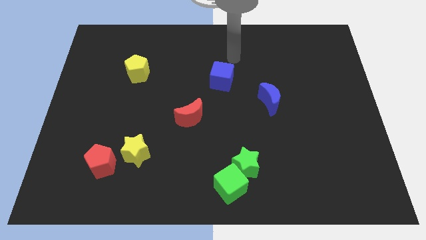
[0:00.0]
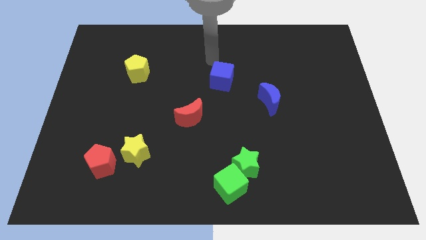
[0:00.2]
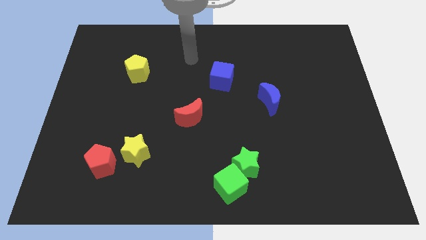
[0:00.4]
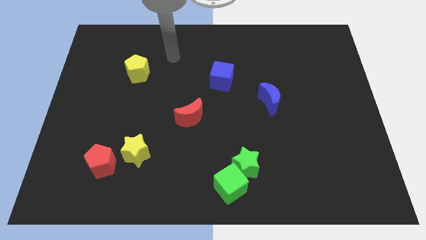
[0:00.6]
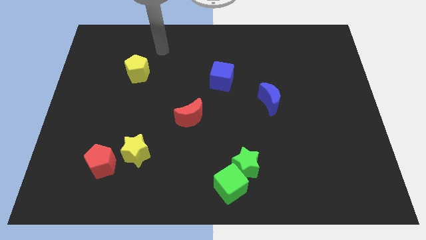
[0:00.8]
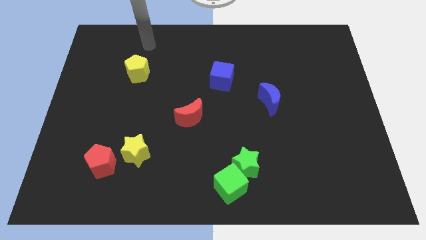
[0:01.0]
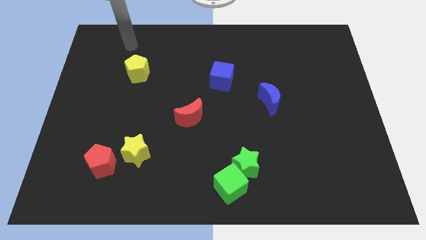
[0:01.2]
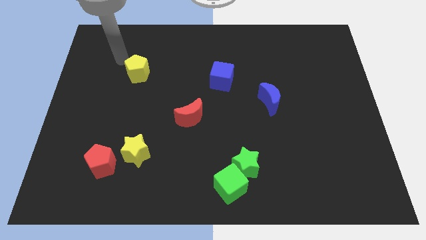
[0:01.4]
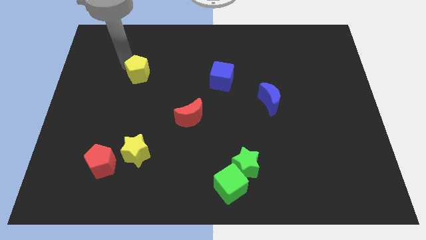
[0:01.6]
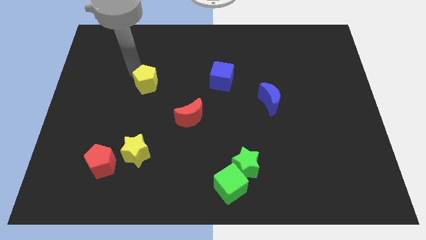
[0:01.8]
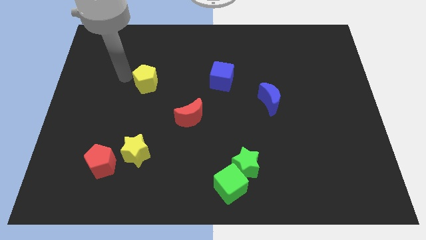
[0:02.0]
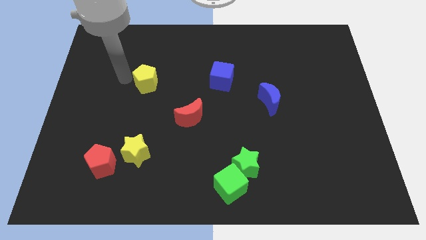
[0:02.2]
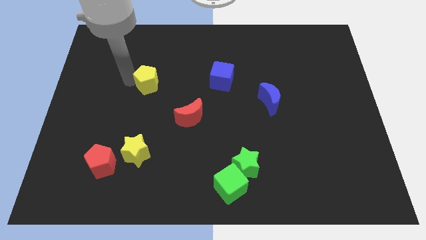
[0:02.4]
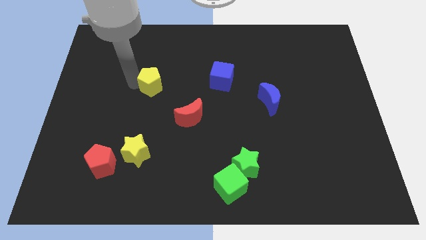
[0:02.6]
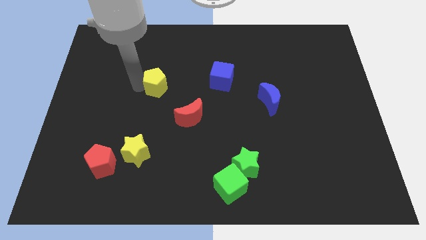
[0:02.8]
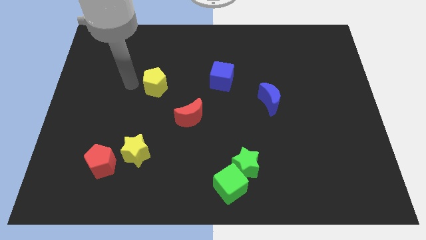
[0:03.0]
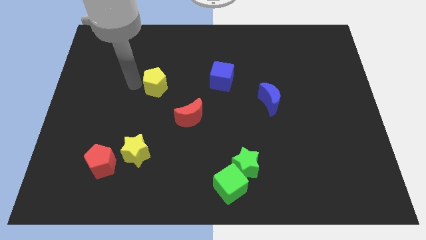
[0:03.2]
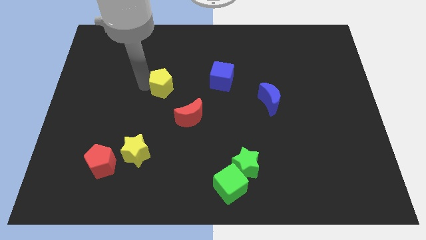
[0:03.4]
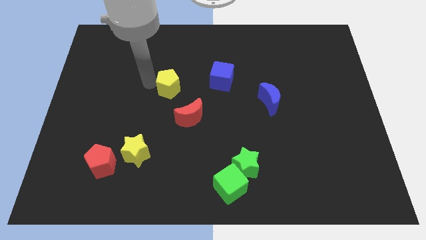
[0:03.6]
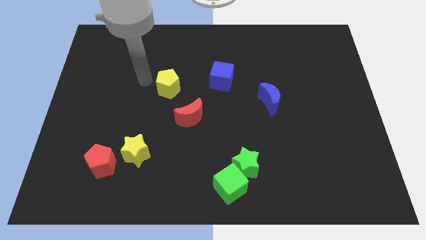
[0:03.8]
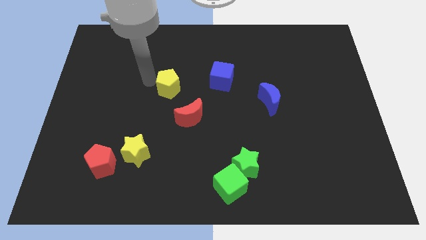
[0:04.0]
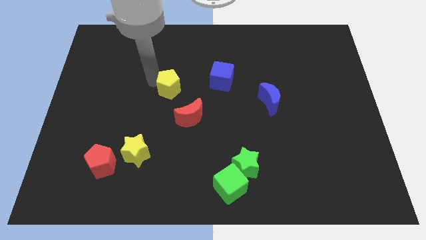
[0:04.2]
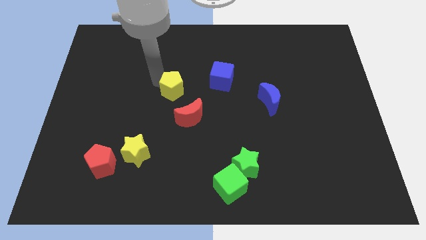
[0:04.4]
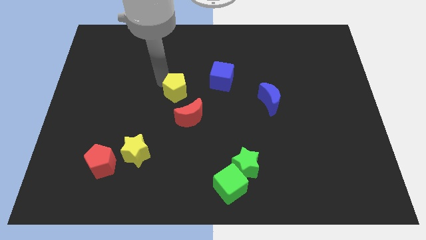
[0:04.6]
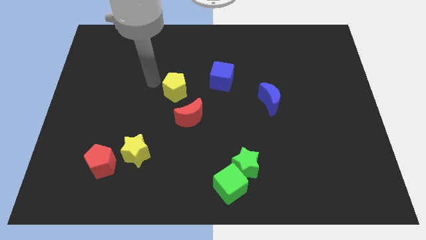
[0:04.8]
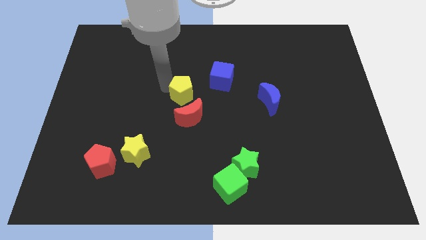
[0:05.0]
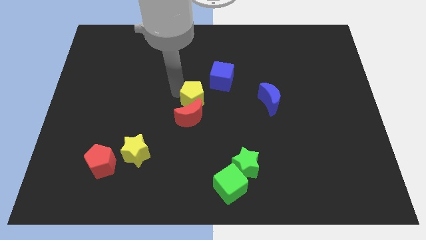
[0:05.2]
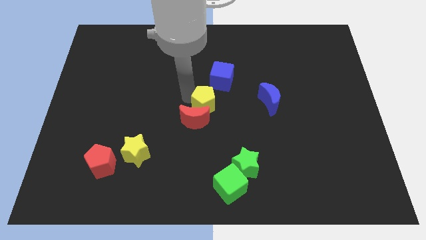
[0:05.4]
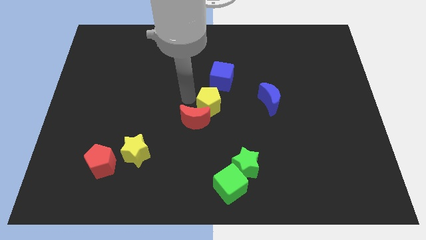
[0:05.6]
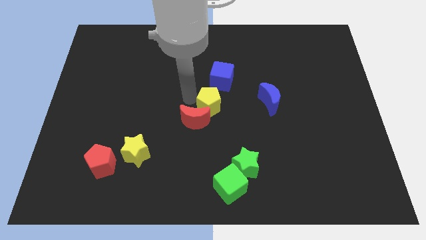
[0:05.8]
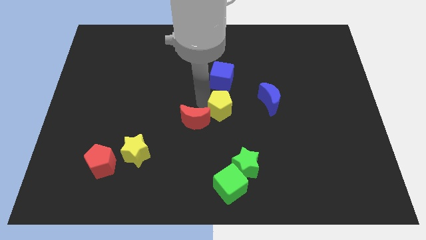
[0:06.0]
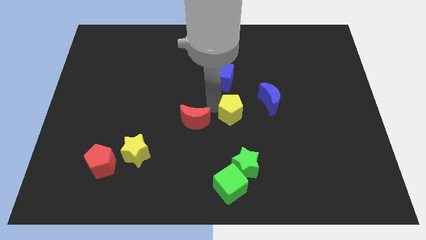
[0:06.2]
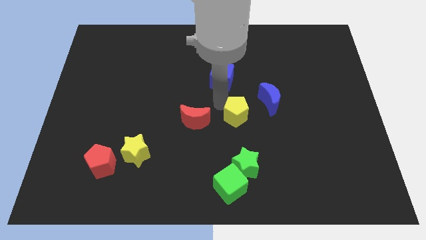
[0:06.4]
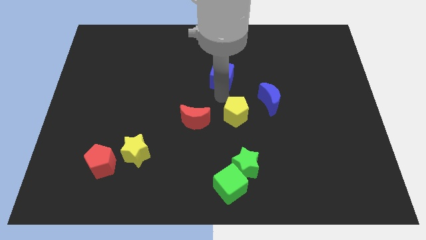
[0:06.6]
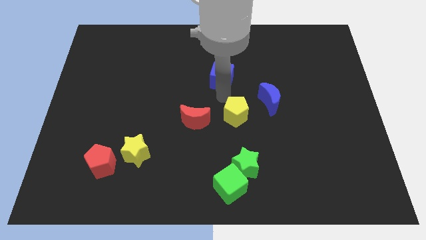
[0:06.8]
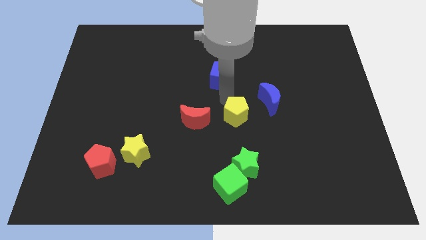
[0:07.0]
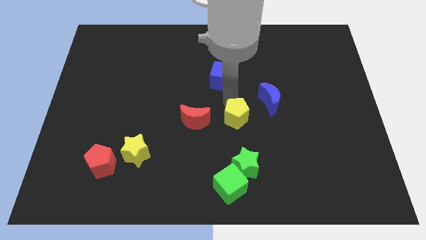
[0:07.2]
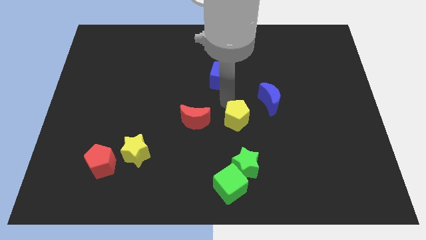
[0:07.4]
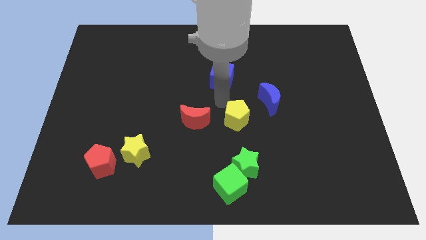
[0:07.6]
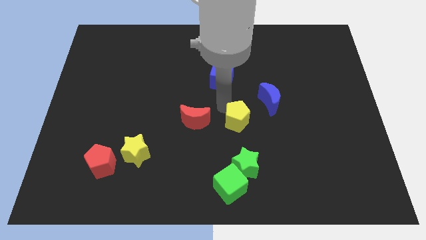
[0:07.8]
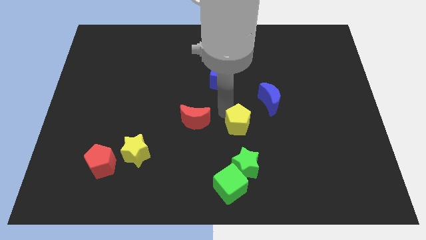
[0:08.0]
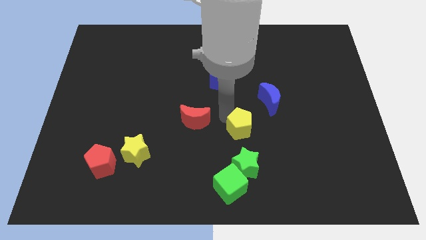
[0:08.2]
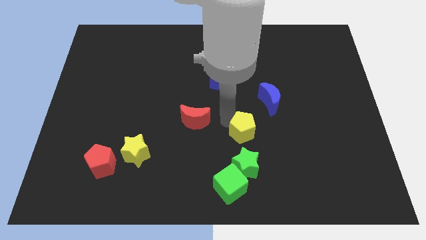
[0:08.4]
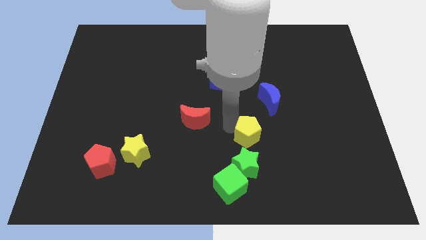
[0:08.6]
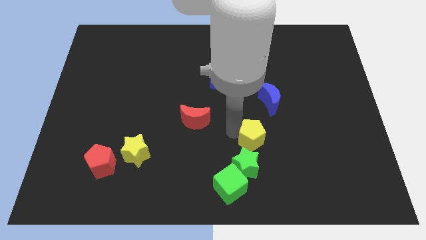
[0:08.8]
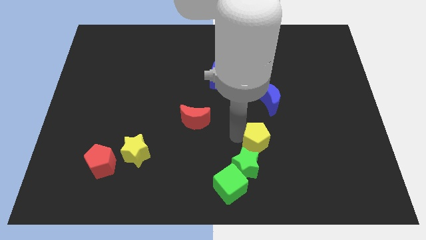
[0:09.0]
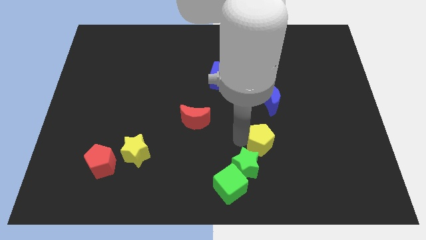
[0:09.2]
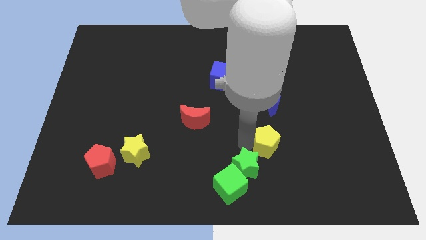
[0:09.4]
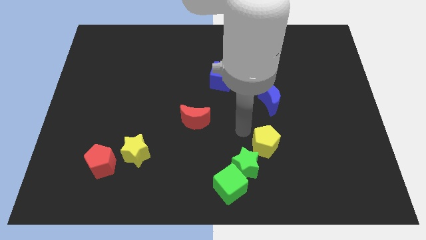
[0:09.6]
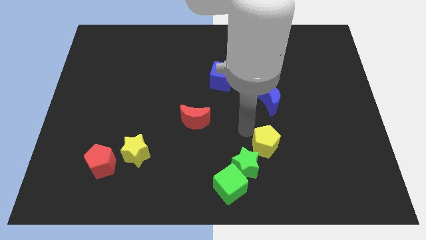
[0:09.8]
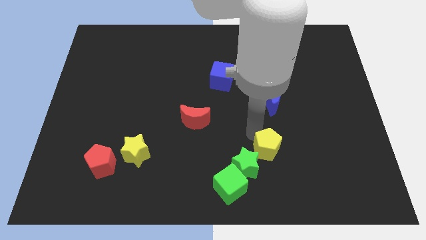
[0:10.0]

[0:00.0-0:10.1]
move the yellow pentagon right of the green star

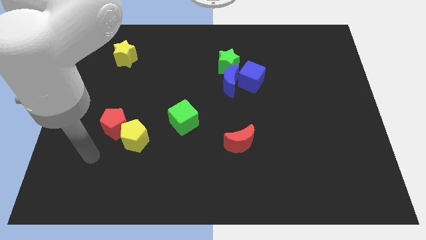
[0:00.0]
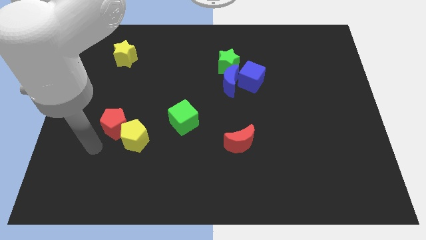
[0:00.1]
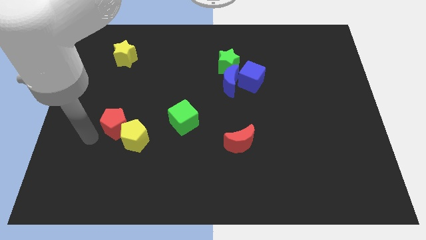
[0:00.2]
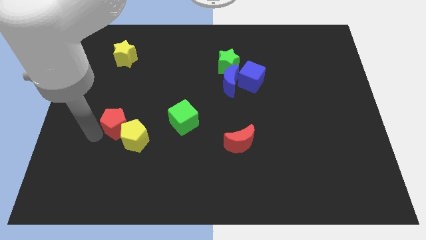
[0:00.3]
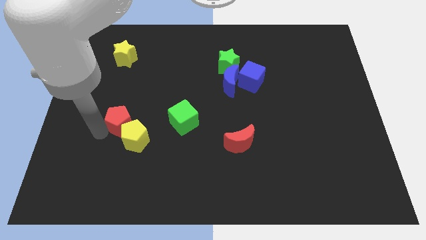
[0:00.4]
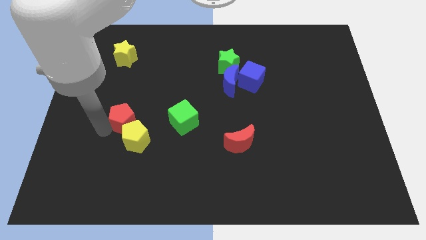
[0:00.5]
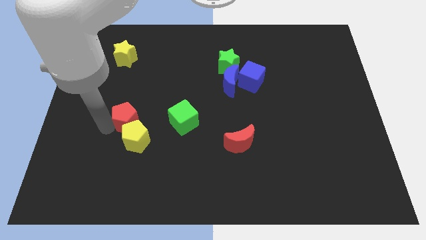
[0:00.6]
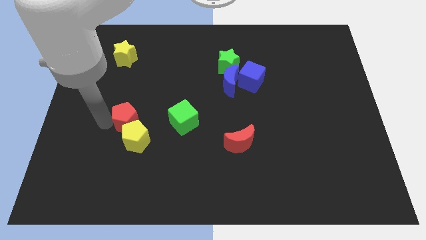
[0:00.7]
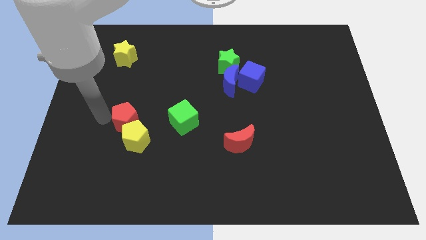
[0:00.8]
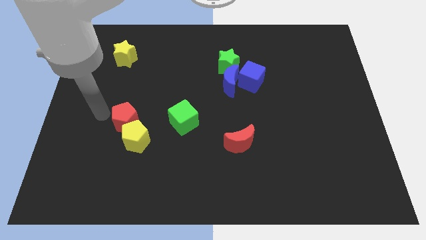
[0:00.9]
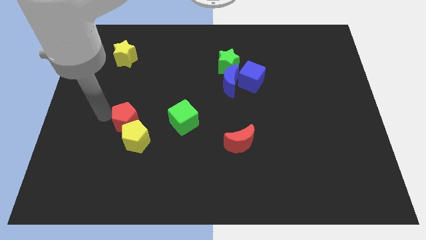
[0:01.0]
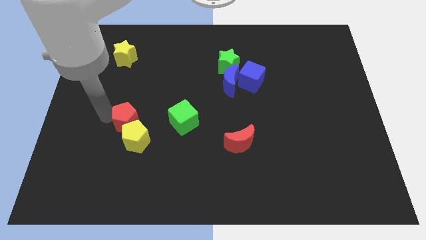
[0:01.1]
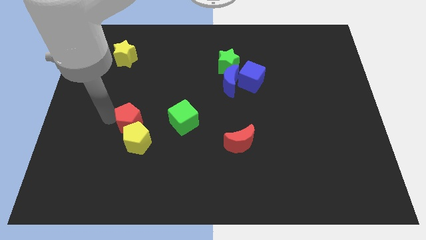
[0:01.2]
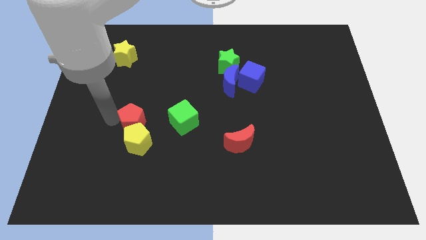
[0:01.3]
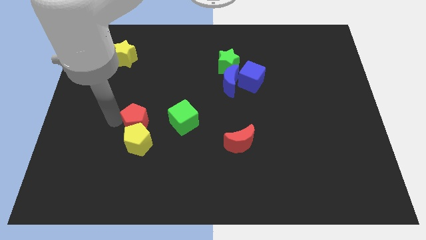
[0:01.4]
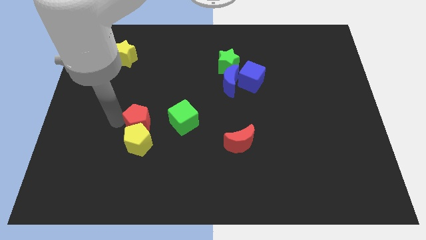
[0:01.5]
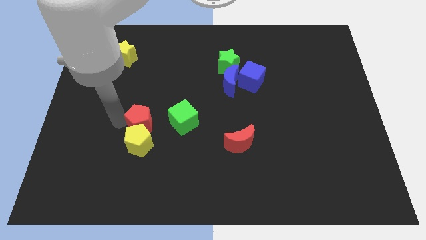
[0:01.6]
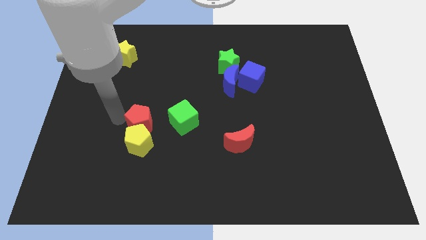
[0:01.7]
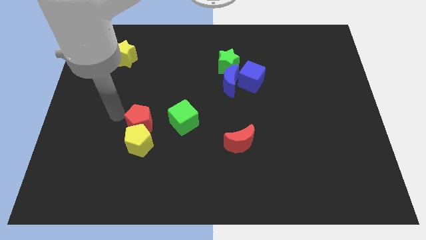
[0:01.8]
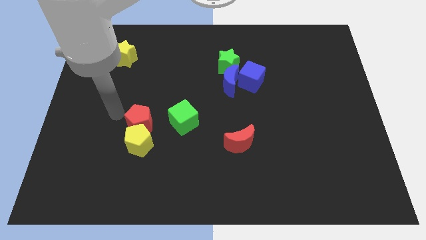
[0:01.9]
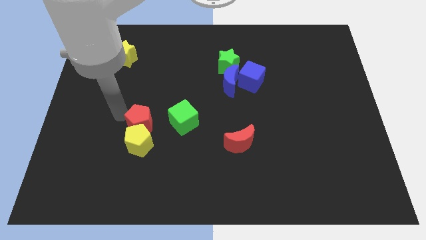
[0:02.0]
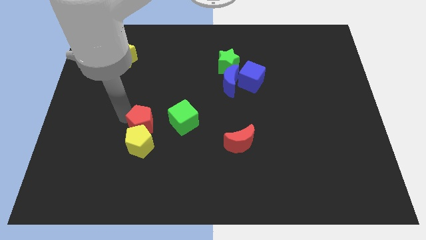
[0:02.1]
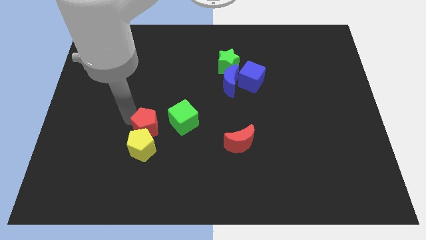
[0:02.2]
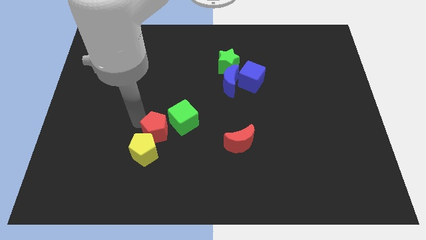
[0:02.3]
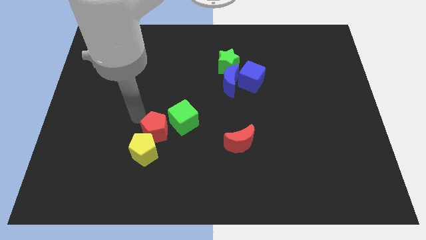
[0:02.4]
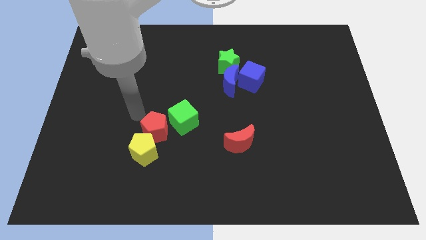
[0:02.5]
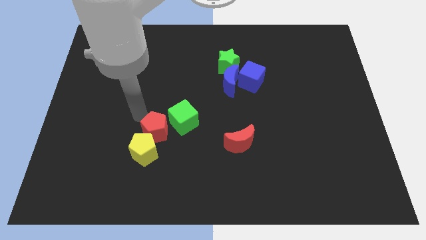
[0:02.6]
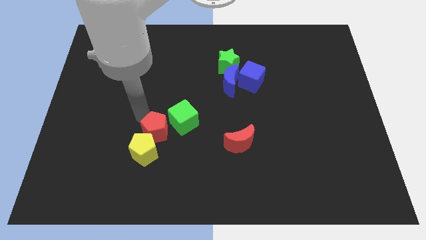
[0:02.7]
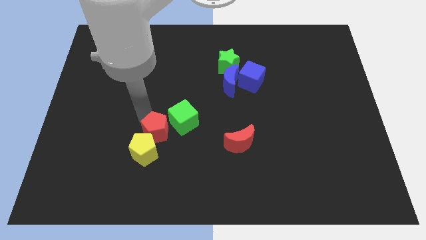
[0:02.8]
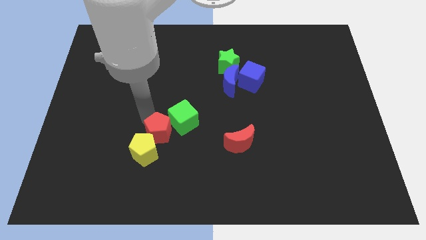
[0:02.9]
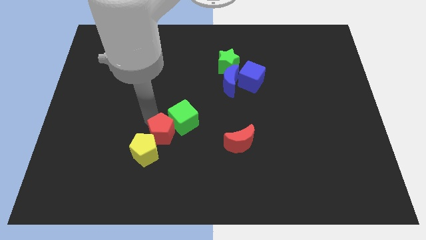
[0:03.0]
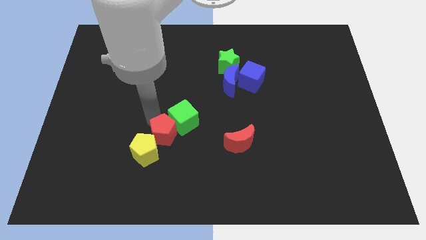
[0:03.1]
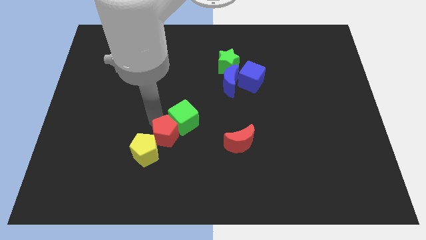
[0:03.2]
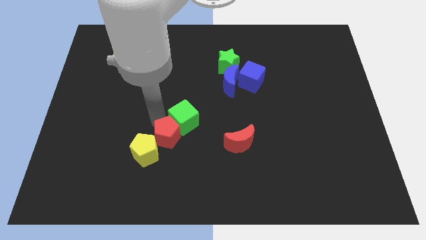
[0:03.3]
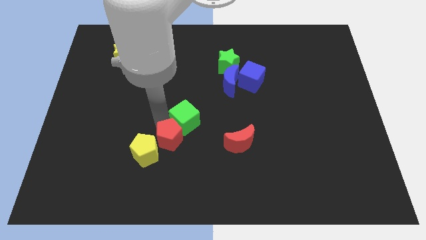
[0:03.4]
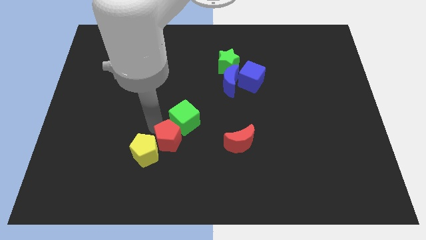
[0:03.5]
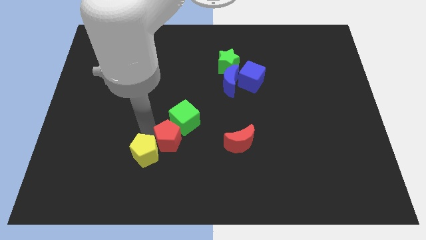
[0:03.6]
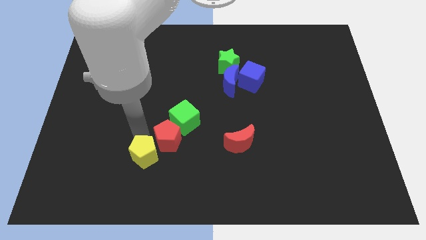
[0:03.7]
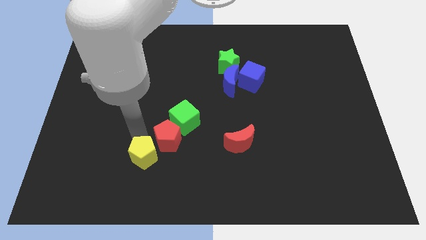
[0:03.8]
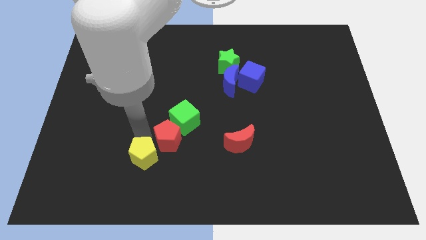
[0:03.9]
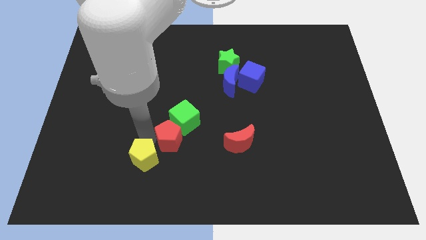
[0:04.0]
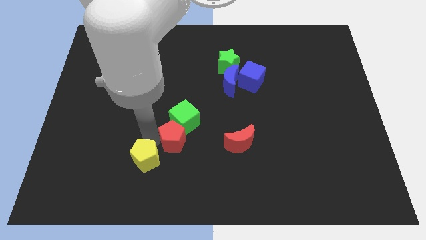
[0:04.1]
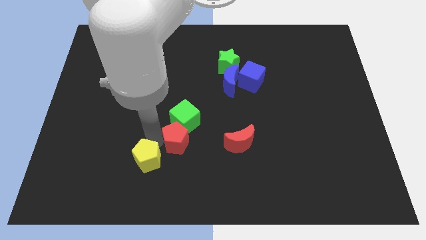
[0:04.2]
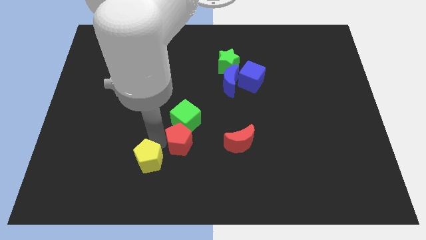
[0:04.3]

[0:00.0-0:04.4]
slide the red pentagon diagonally down and to the right of the green cube
